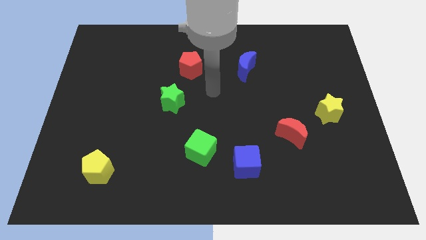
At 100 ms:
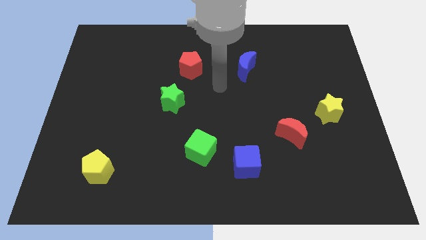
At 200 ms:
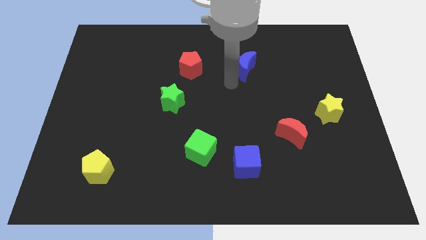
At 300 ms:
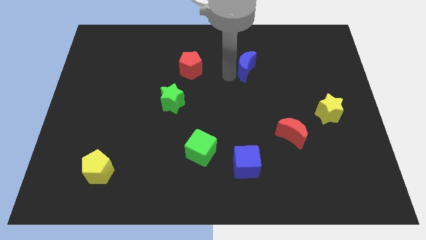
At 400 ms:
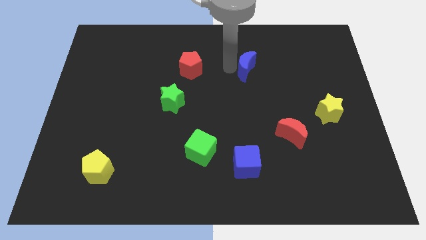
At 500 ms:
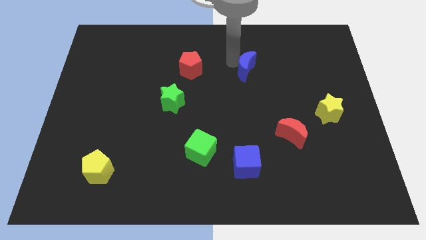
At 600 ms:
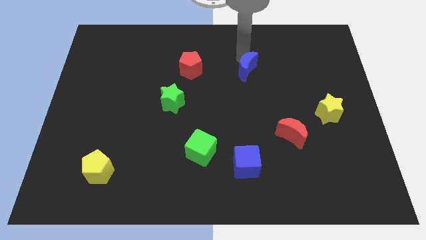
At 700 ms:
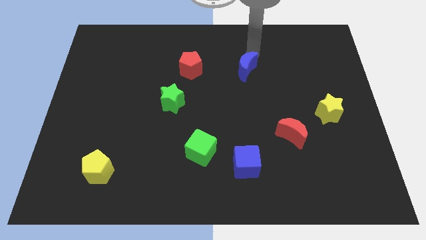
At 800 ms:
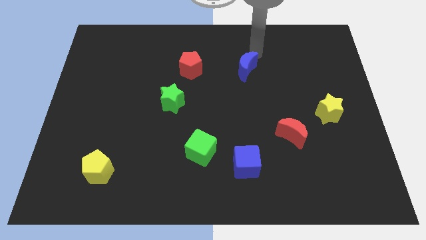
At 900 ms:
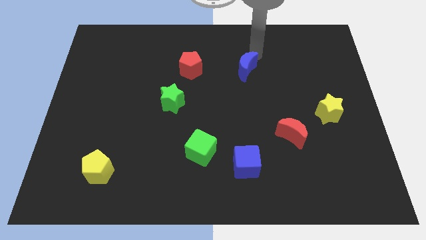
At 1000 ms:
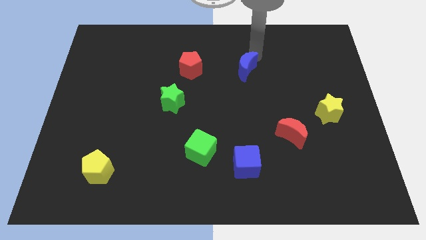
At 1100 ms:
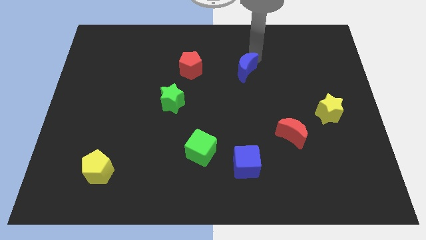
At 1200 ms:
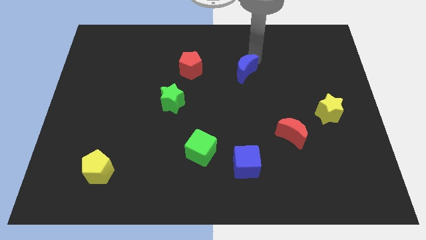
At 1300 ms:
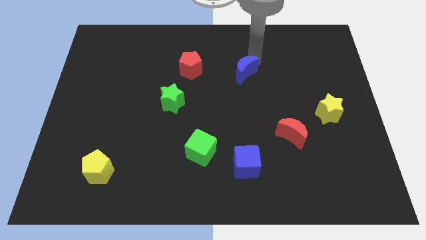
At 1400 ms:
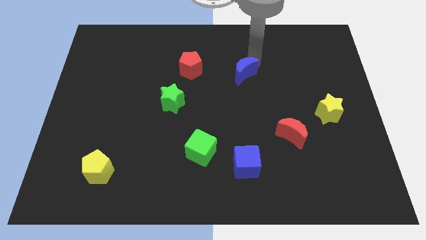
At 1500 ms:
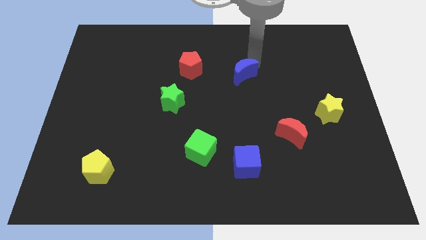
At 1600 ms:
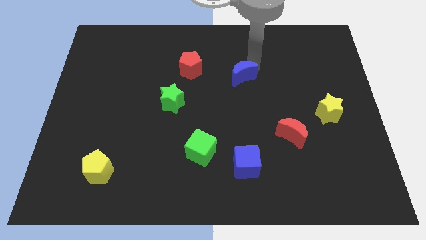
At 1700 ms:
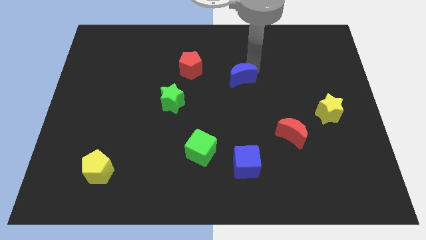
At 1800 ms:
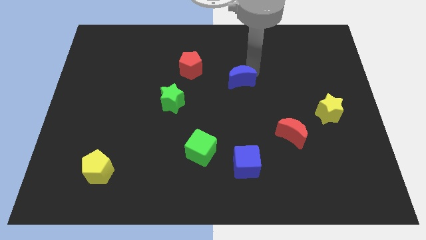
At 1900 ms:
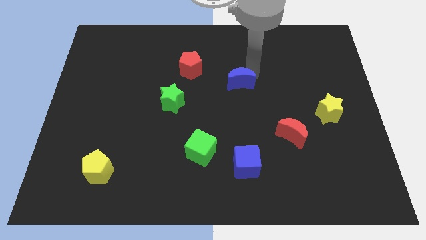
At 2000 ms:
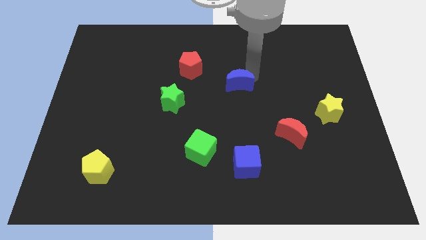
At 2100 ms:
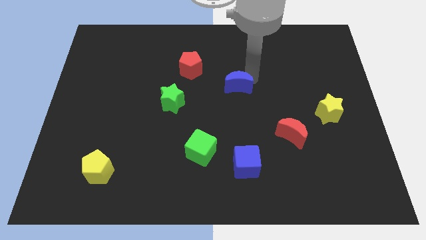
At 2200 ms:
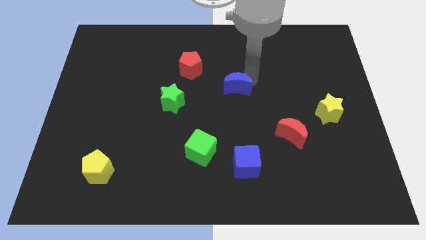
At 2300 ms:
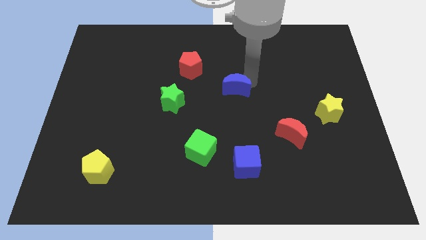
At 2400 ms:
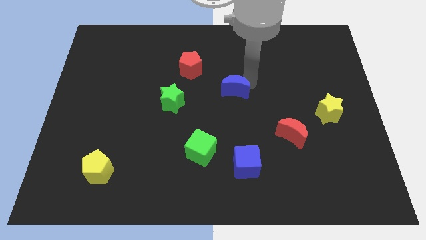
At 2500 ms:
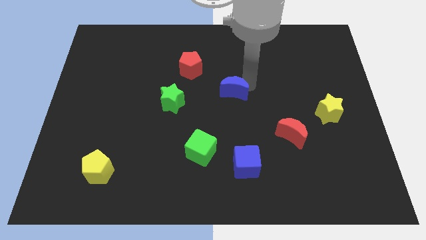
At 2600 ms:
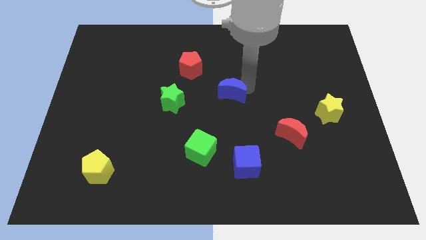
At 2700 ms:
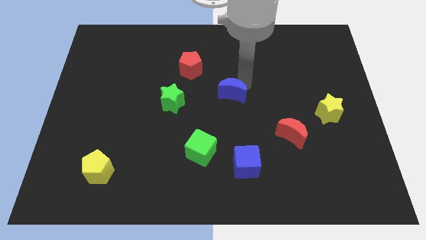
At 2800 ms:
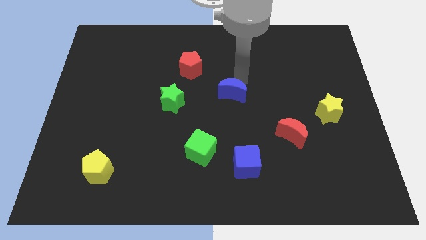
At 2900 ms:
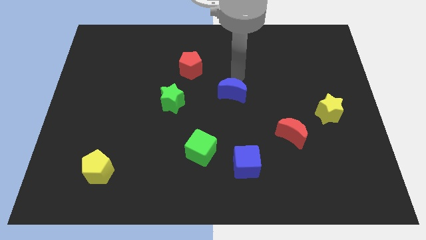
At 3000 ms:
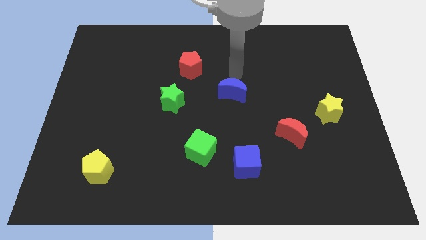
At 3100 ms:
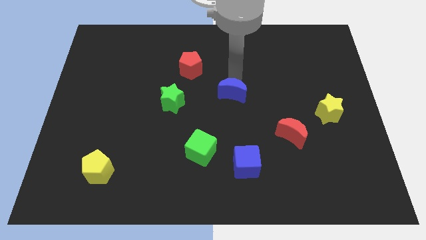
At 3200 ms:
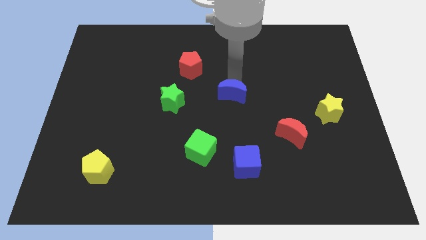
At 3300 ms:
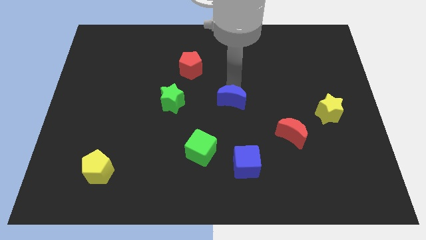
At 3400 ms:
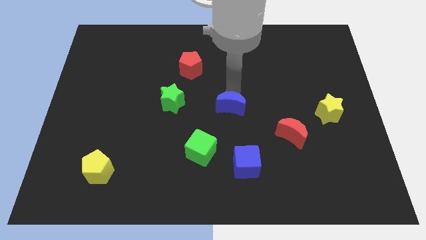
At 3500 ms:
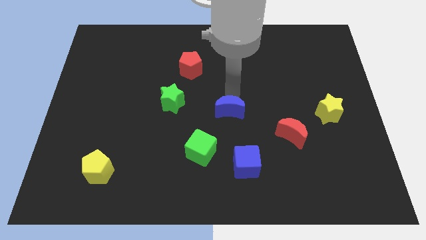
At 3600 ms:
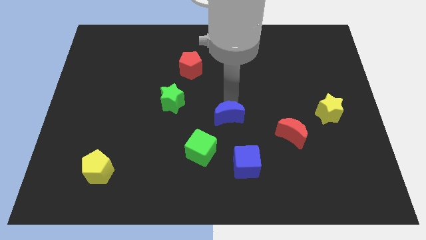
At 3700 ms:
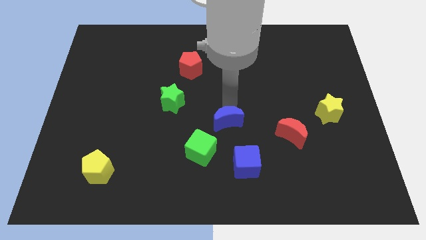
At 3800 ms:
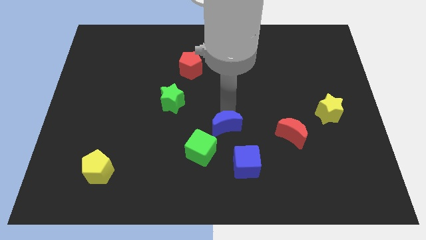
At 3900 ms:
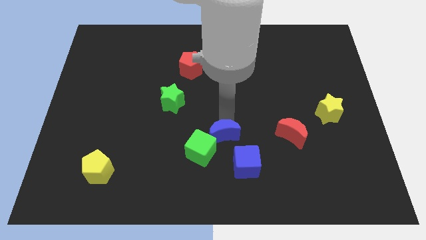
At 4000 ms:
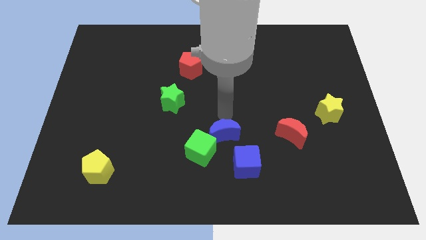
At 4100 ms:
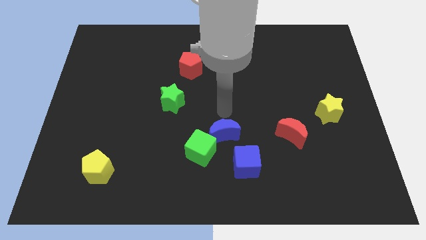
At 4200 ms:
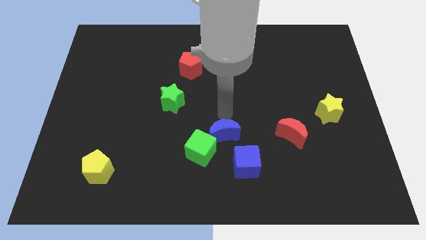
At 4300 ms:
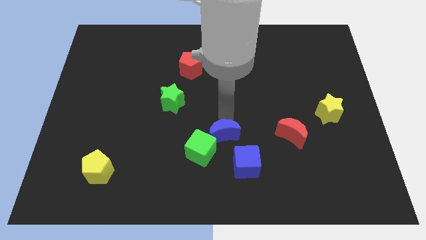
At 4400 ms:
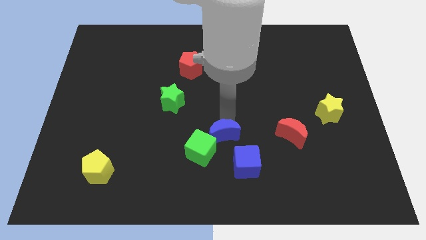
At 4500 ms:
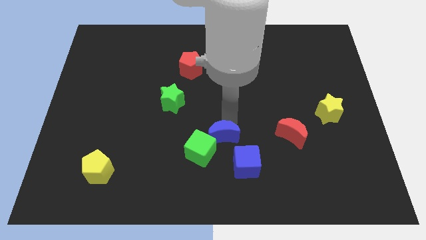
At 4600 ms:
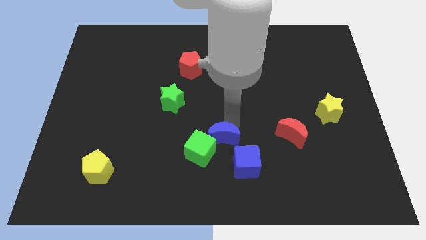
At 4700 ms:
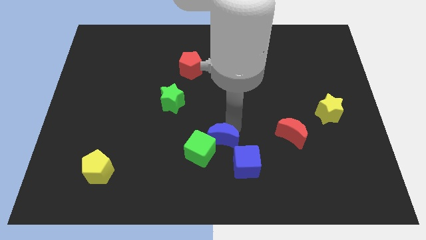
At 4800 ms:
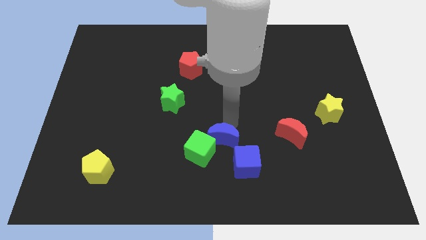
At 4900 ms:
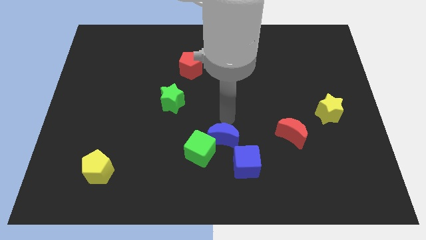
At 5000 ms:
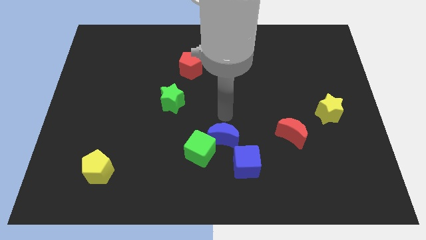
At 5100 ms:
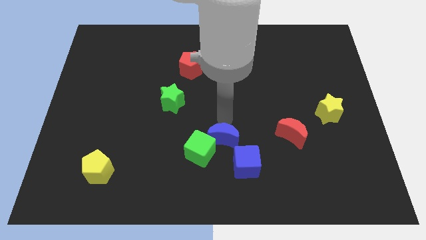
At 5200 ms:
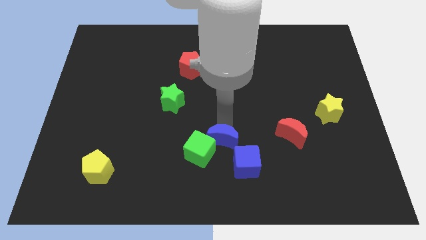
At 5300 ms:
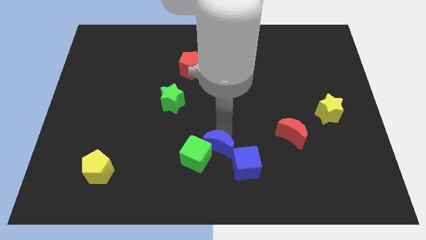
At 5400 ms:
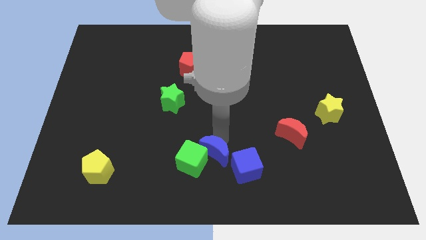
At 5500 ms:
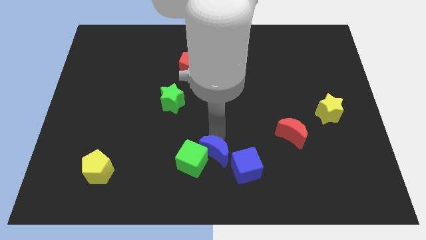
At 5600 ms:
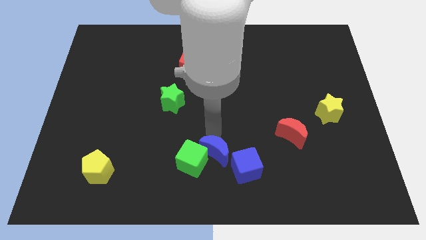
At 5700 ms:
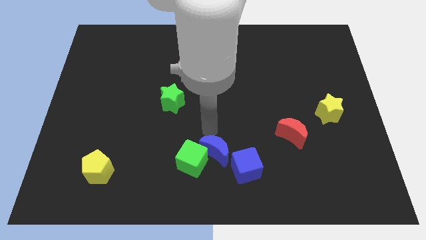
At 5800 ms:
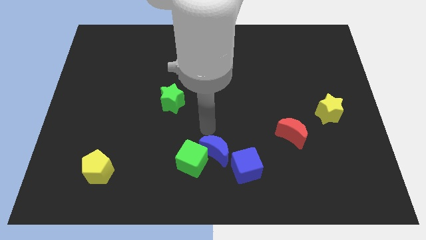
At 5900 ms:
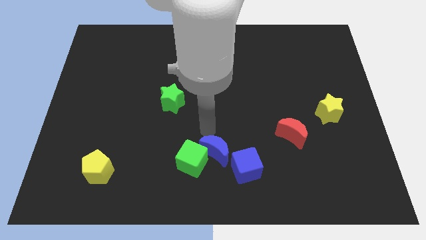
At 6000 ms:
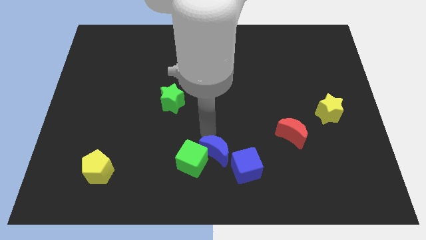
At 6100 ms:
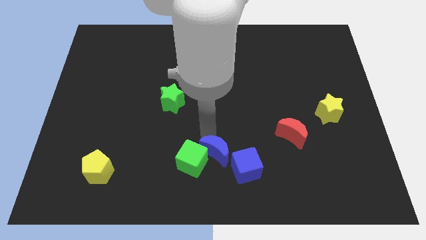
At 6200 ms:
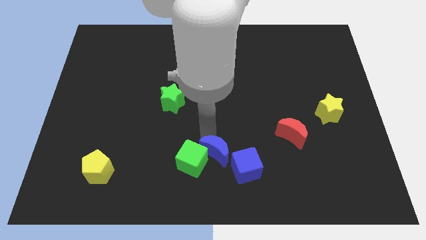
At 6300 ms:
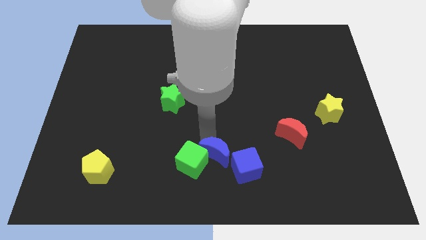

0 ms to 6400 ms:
move the blue moon to the bottom

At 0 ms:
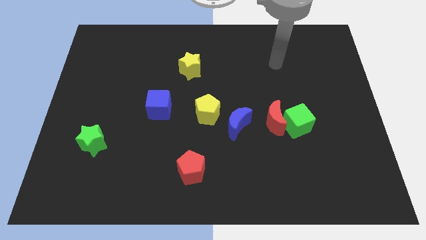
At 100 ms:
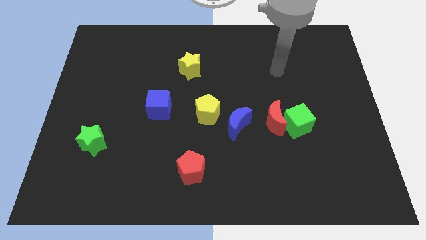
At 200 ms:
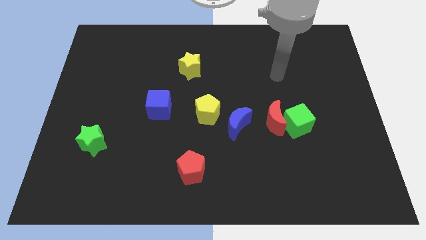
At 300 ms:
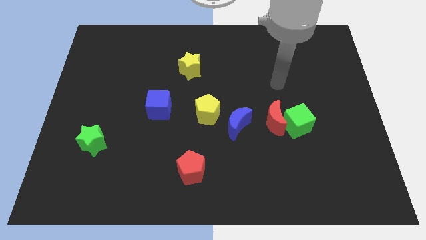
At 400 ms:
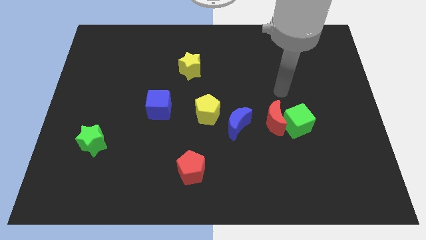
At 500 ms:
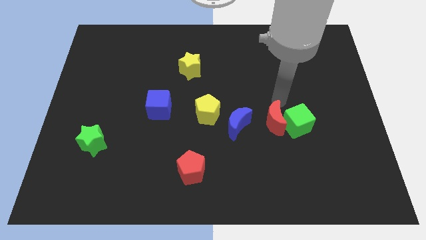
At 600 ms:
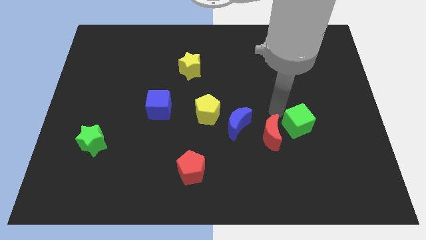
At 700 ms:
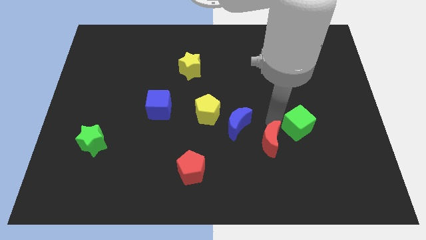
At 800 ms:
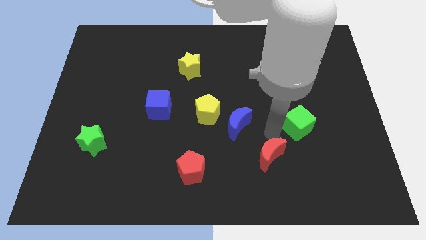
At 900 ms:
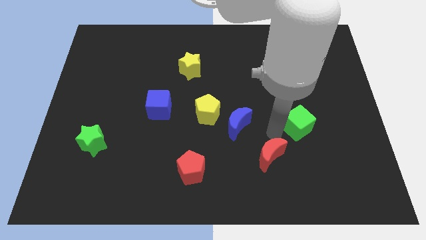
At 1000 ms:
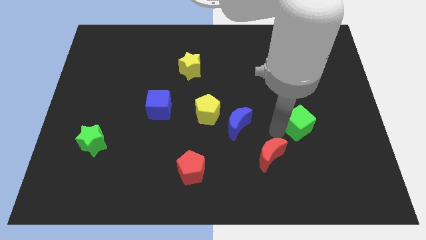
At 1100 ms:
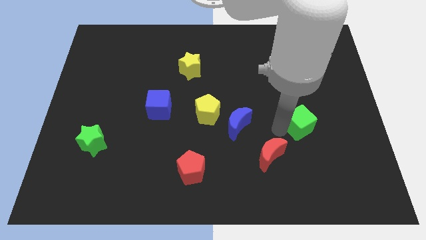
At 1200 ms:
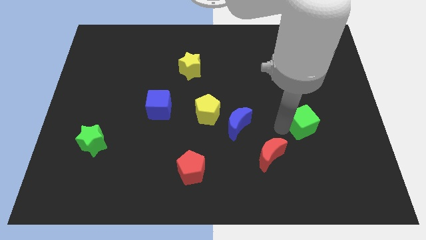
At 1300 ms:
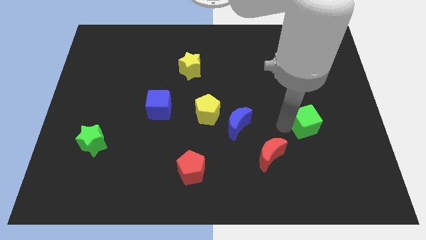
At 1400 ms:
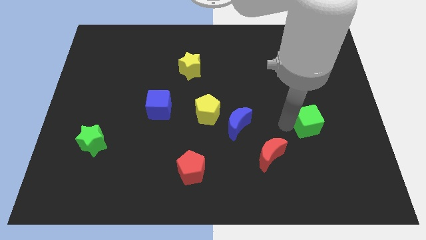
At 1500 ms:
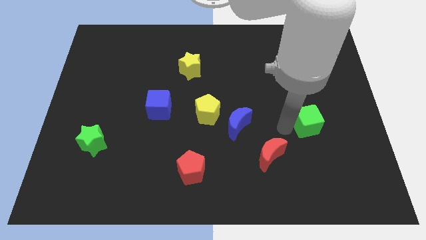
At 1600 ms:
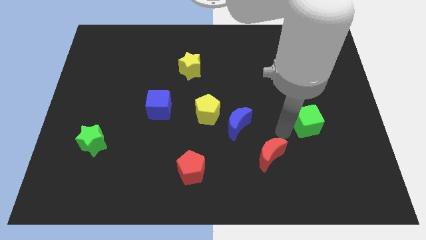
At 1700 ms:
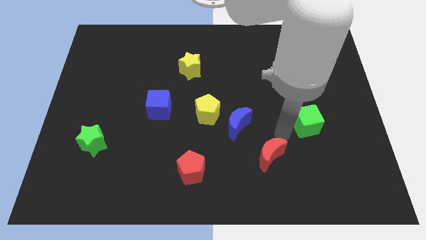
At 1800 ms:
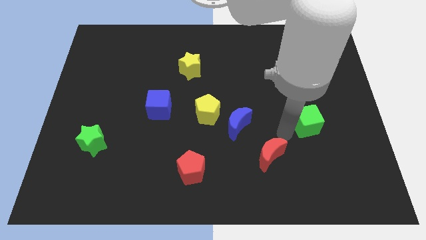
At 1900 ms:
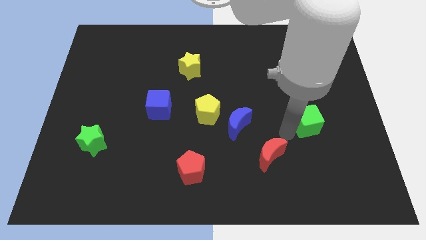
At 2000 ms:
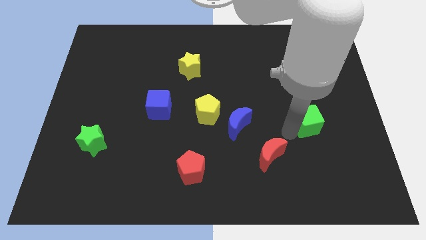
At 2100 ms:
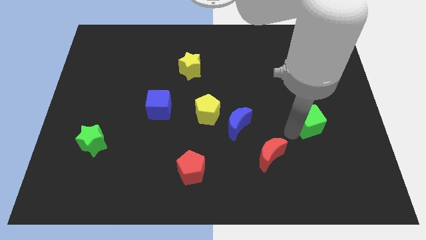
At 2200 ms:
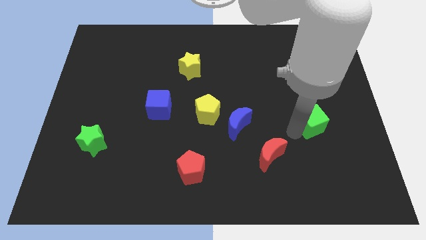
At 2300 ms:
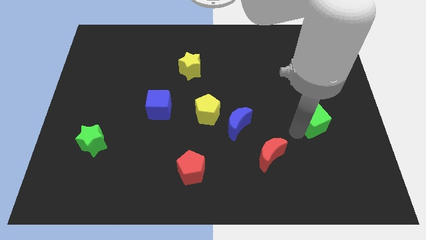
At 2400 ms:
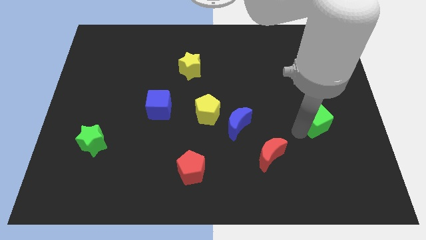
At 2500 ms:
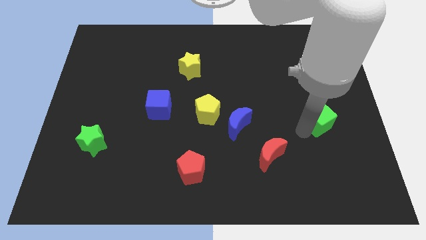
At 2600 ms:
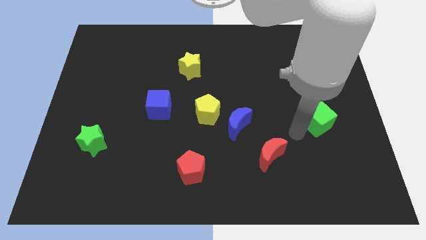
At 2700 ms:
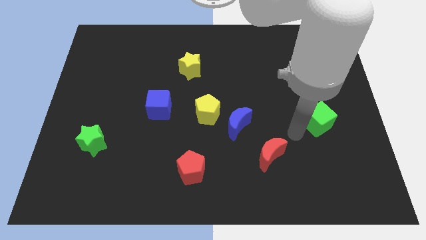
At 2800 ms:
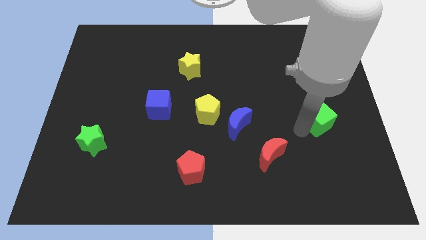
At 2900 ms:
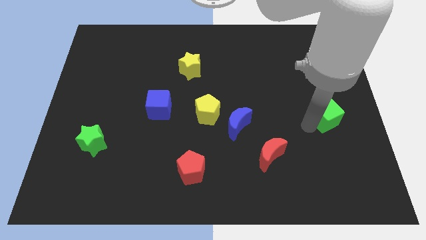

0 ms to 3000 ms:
move the green cube to the right side of the board
